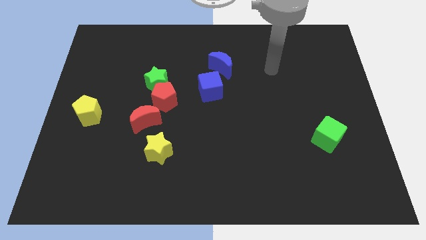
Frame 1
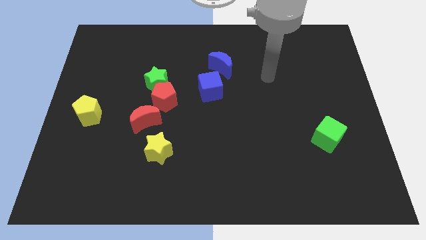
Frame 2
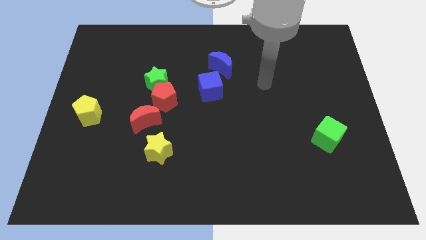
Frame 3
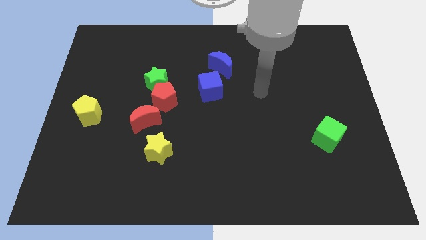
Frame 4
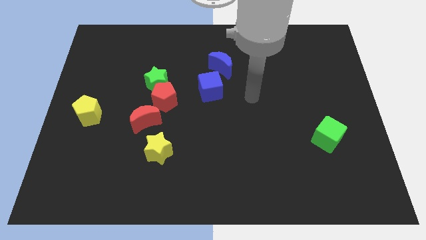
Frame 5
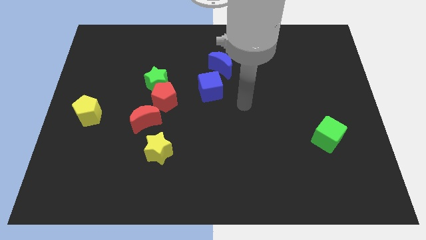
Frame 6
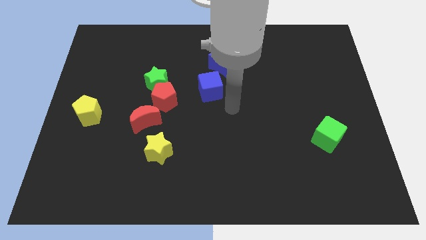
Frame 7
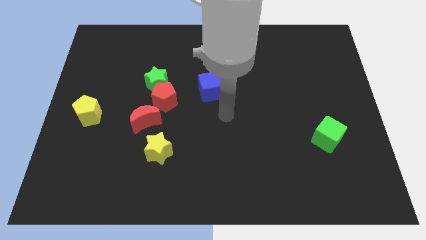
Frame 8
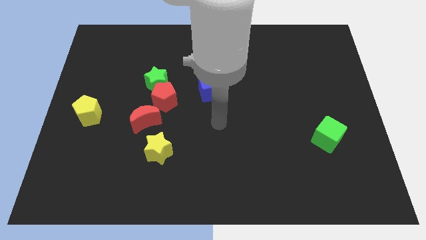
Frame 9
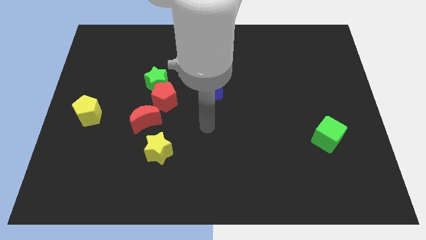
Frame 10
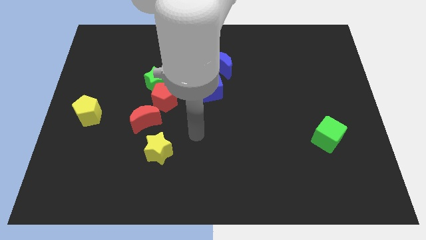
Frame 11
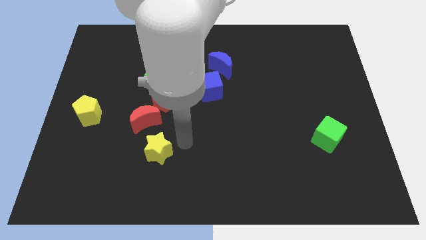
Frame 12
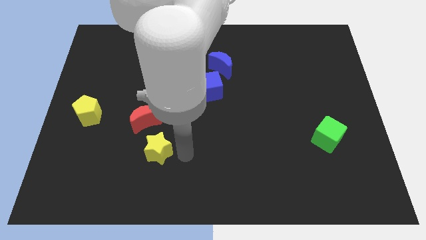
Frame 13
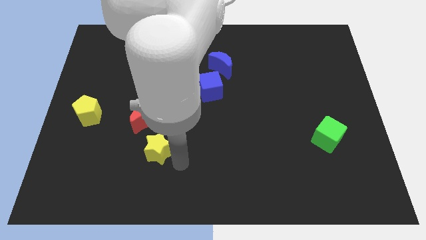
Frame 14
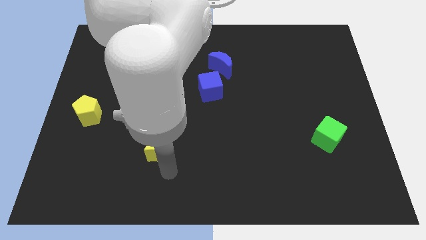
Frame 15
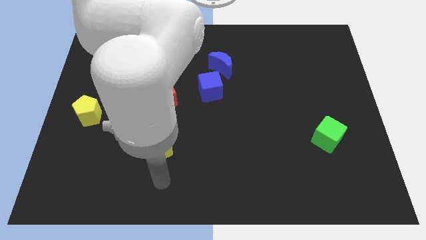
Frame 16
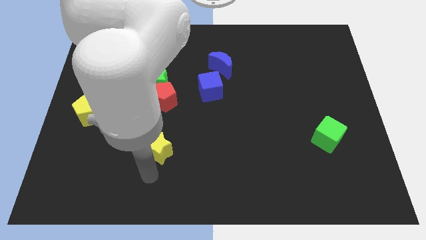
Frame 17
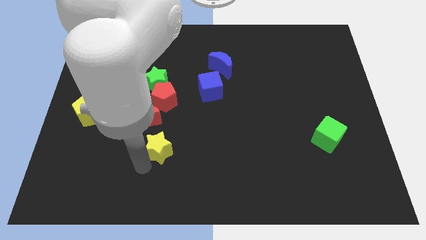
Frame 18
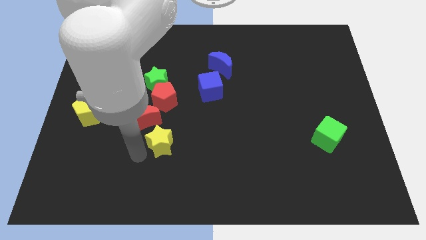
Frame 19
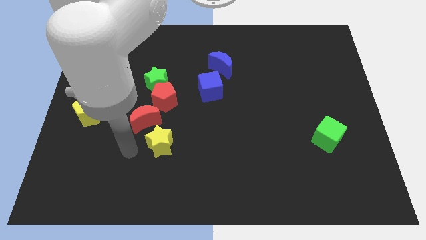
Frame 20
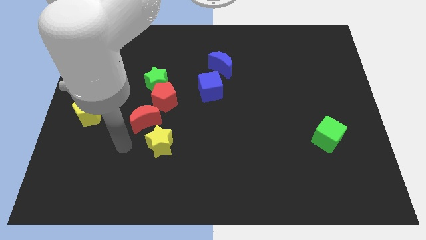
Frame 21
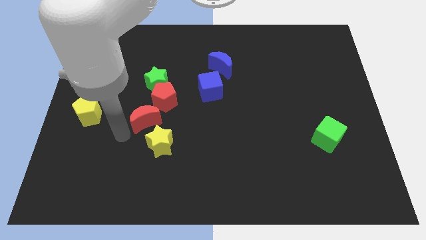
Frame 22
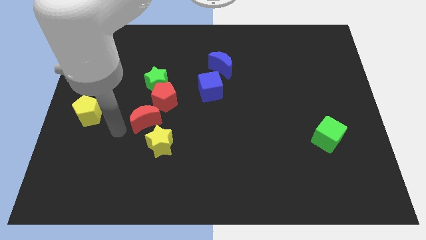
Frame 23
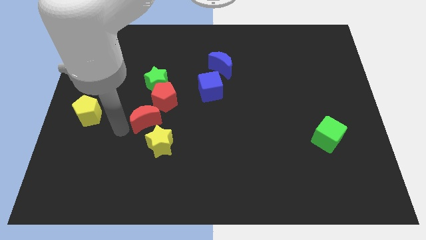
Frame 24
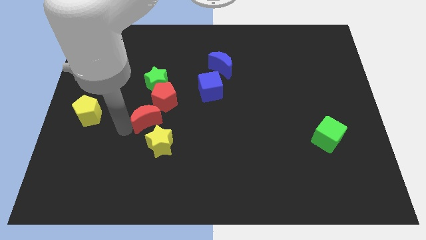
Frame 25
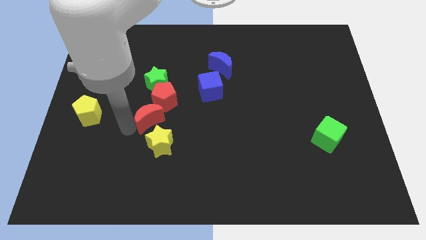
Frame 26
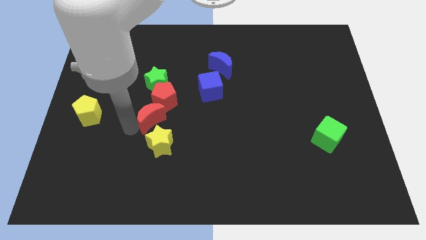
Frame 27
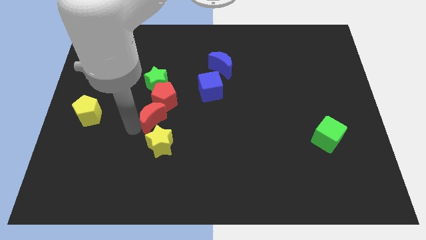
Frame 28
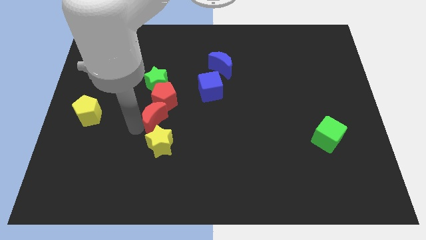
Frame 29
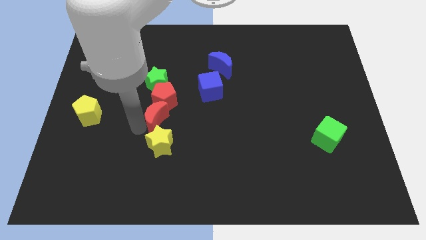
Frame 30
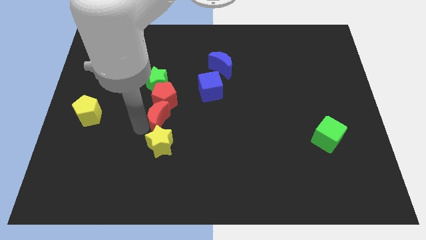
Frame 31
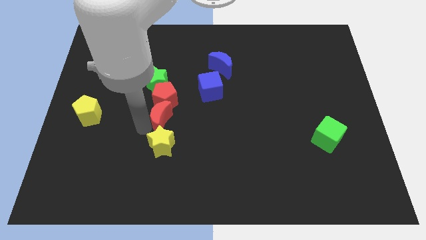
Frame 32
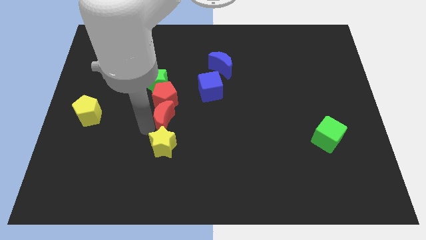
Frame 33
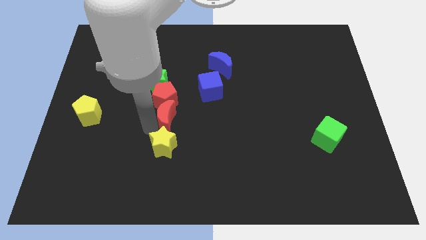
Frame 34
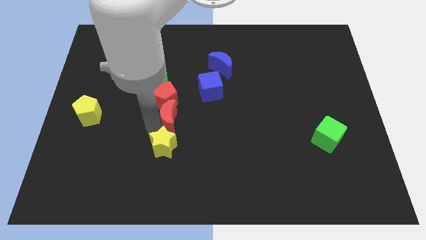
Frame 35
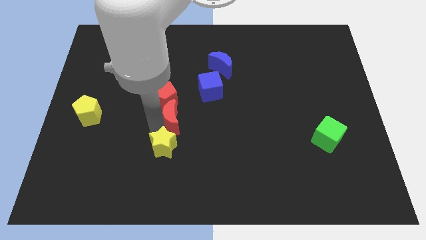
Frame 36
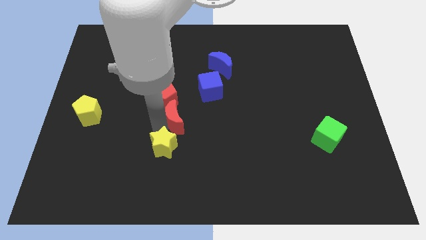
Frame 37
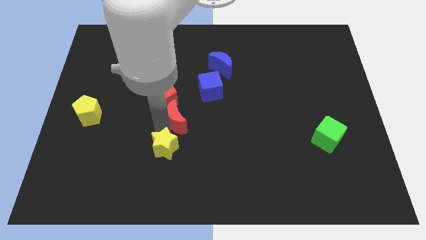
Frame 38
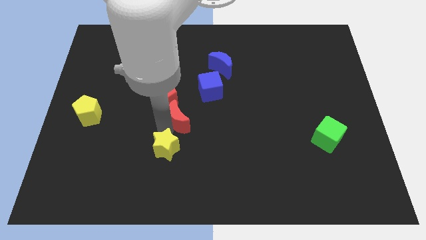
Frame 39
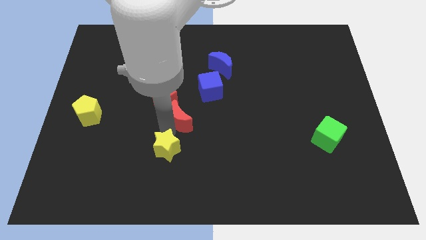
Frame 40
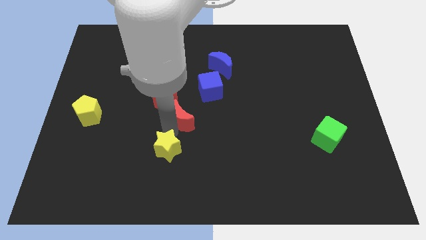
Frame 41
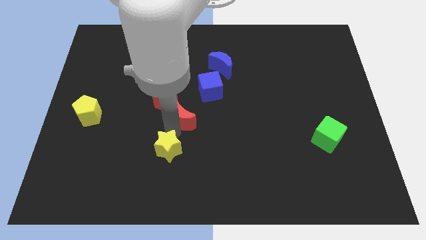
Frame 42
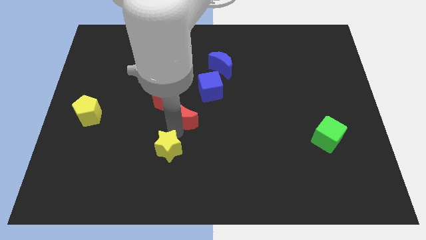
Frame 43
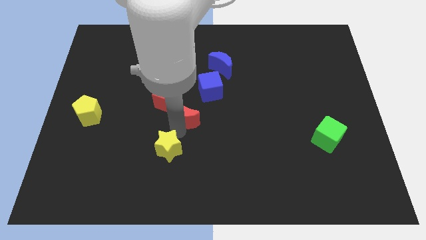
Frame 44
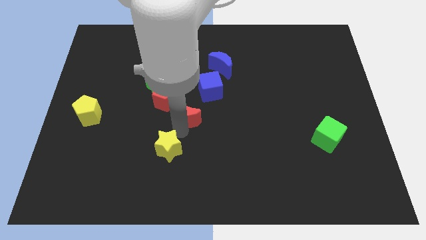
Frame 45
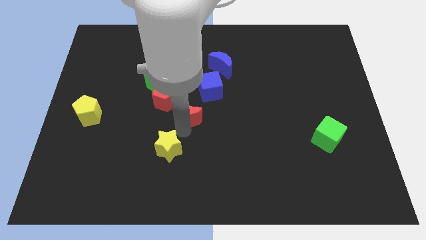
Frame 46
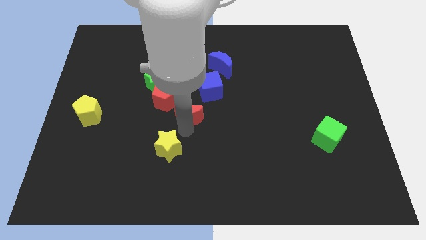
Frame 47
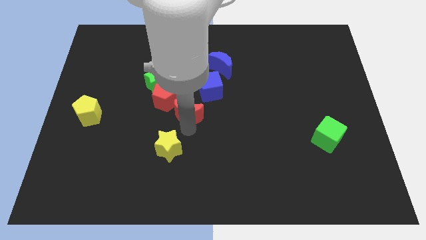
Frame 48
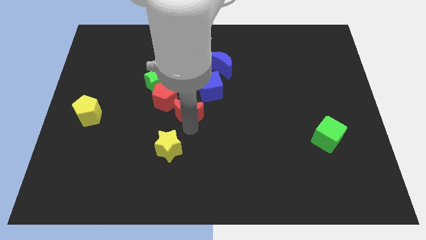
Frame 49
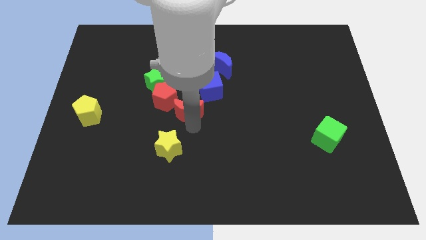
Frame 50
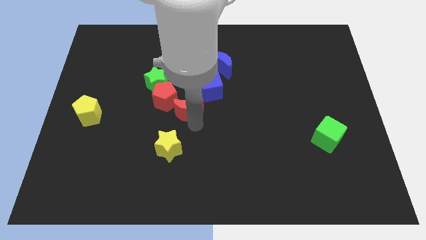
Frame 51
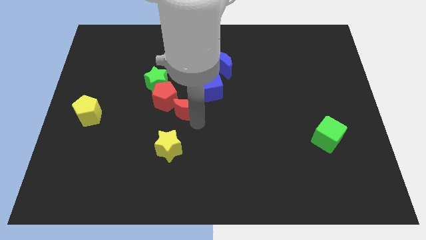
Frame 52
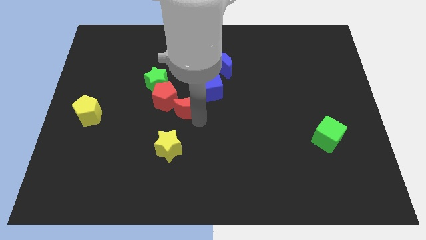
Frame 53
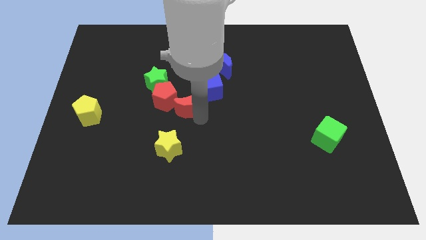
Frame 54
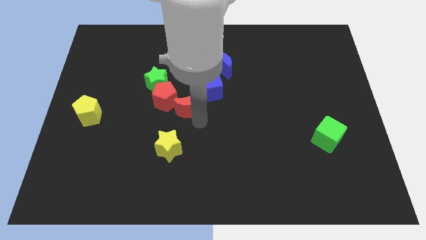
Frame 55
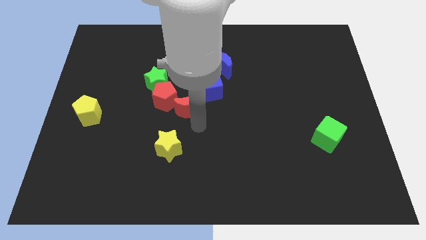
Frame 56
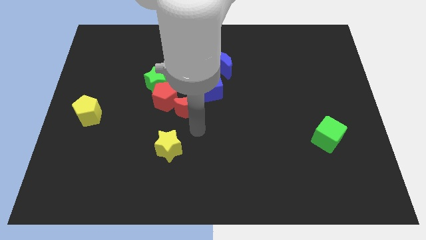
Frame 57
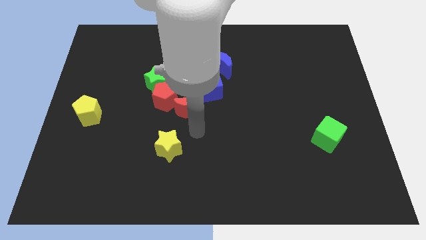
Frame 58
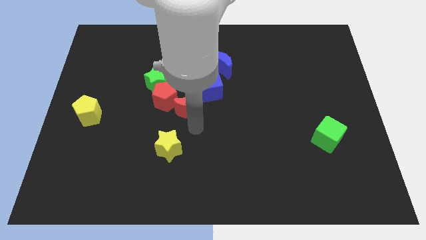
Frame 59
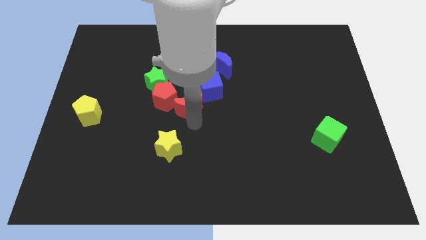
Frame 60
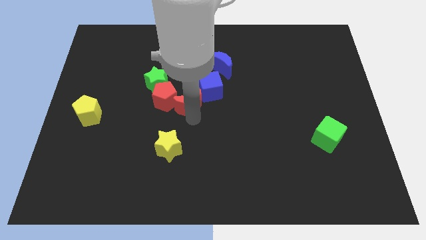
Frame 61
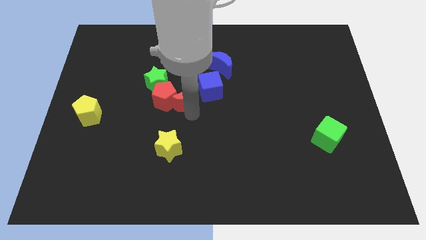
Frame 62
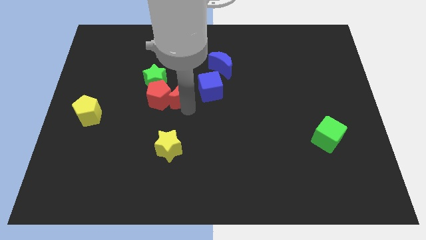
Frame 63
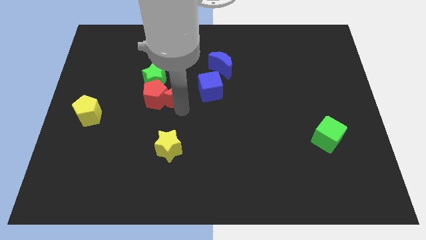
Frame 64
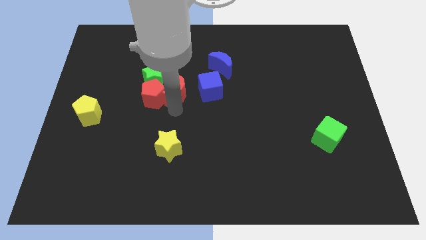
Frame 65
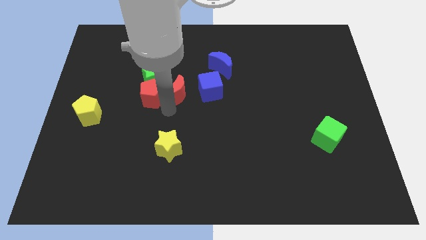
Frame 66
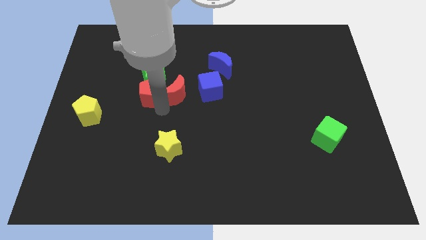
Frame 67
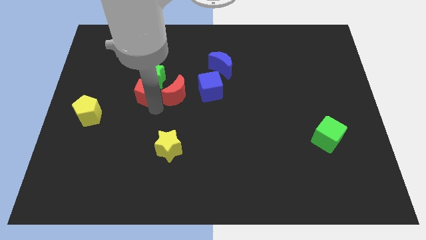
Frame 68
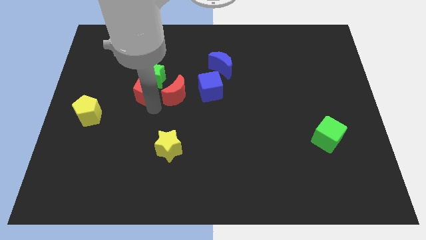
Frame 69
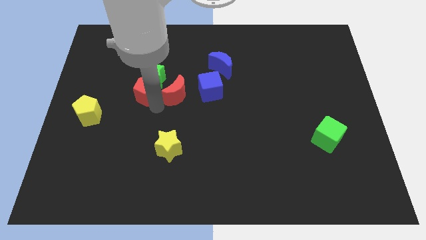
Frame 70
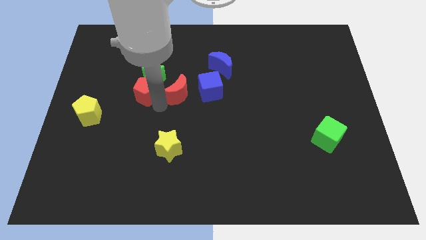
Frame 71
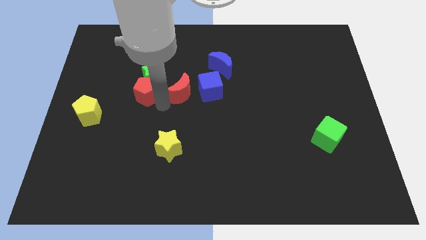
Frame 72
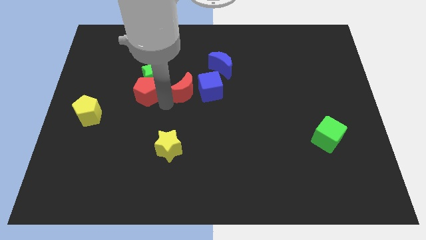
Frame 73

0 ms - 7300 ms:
push the red moon to the bottom left side of the blue moon

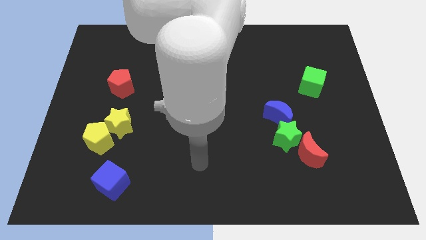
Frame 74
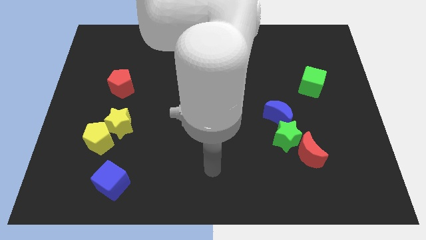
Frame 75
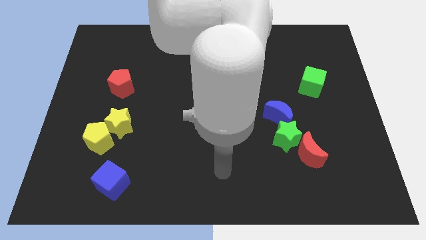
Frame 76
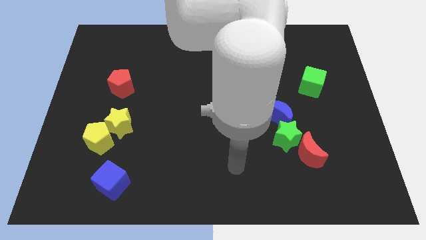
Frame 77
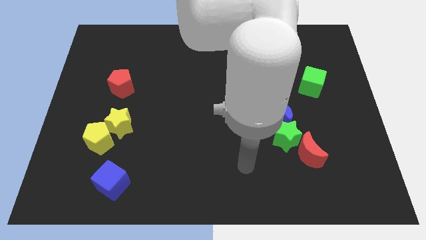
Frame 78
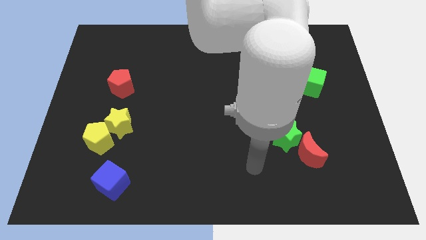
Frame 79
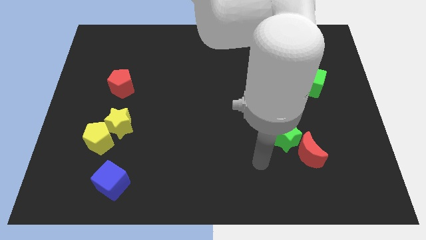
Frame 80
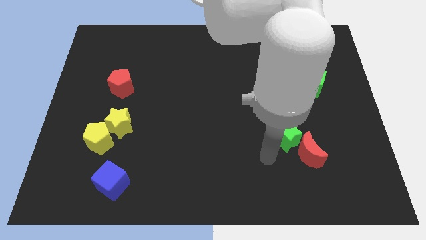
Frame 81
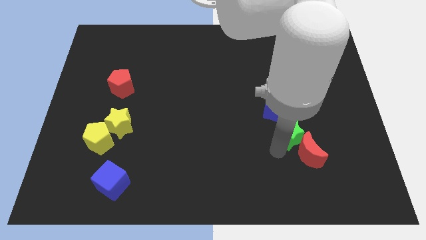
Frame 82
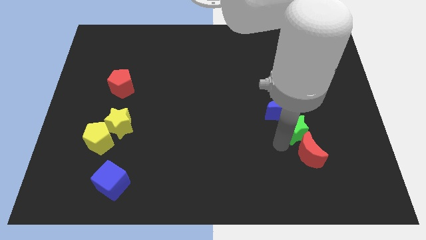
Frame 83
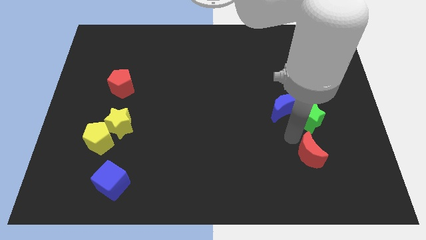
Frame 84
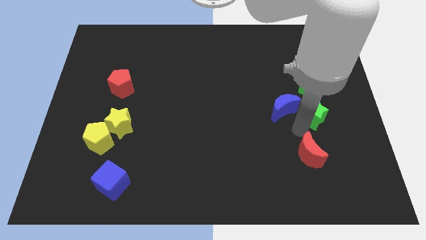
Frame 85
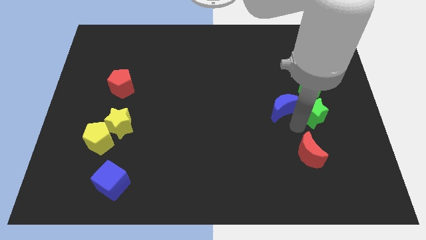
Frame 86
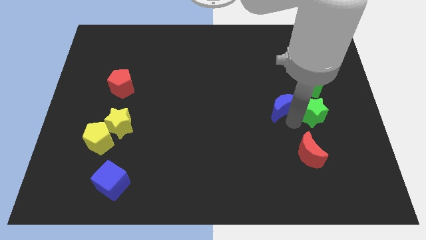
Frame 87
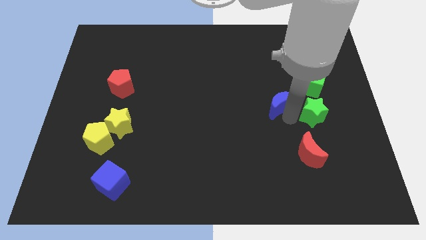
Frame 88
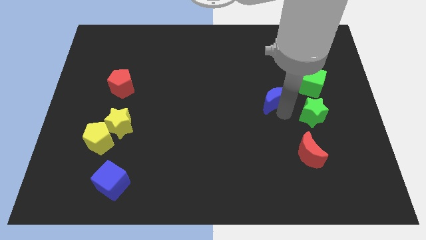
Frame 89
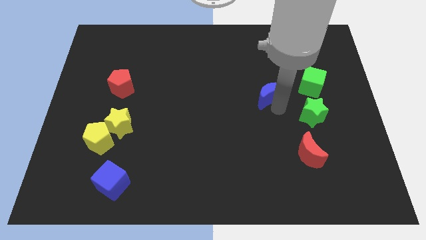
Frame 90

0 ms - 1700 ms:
push the blue moon to the left side of the green cube
